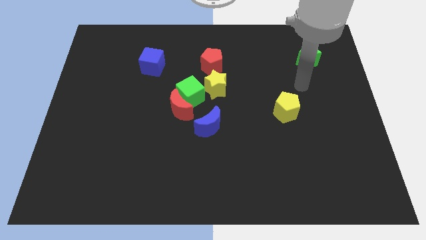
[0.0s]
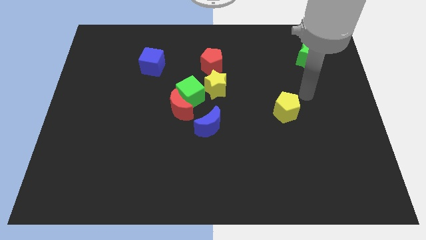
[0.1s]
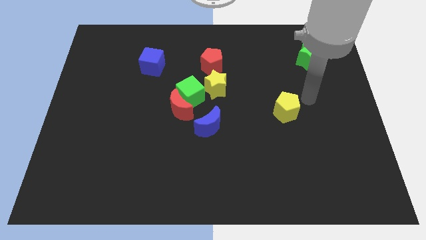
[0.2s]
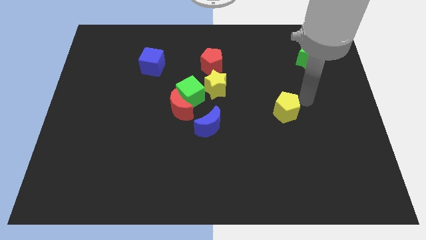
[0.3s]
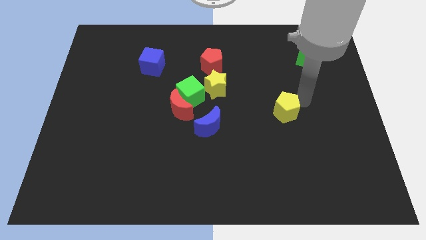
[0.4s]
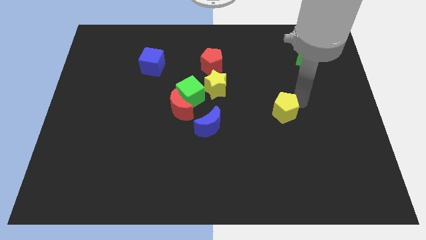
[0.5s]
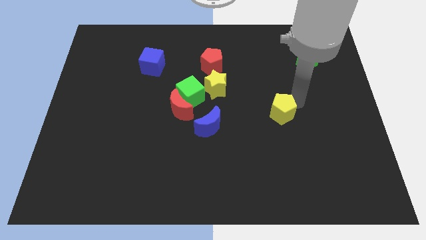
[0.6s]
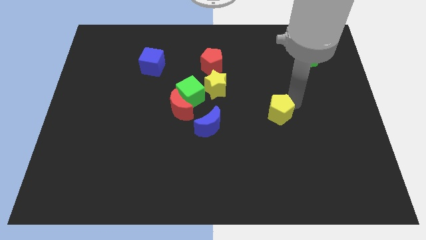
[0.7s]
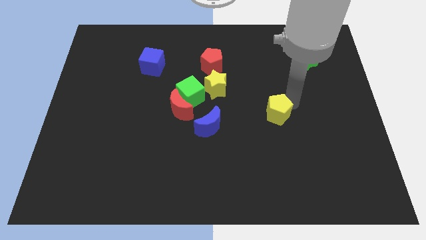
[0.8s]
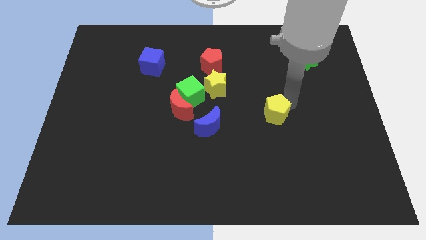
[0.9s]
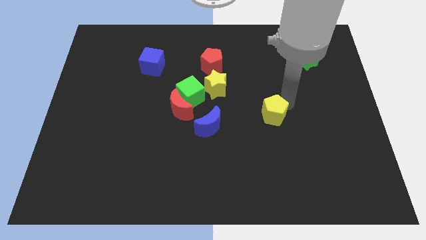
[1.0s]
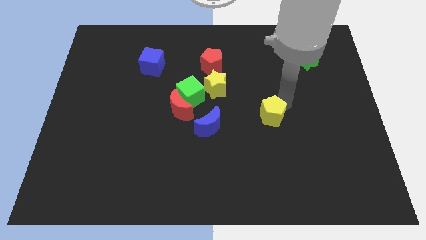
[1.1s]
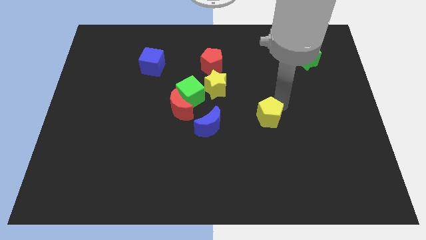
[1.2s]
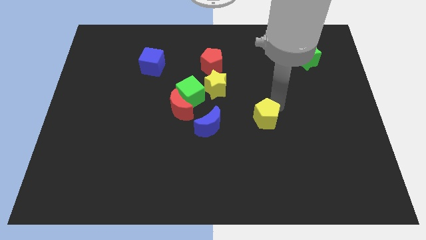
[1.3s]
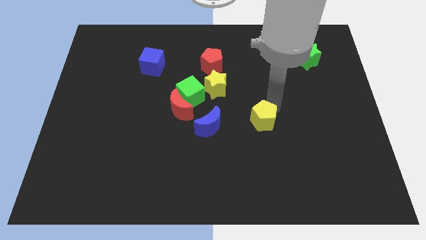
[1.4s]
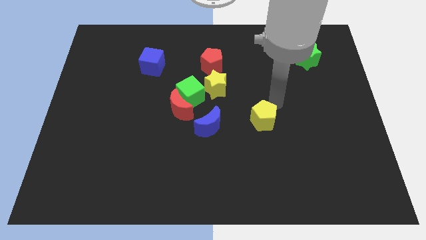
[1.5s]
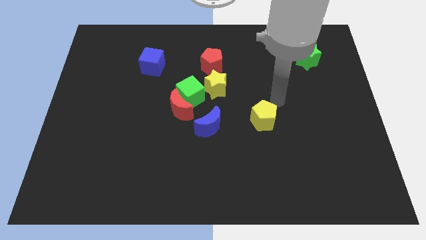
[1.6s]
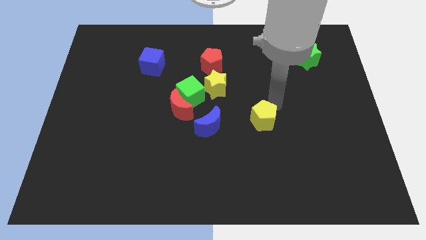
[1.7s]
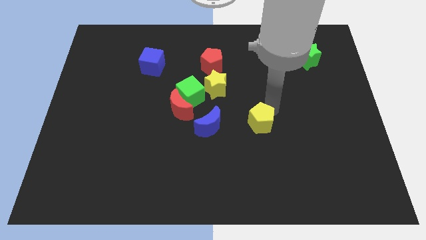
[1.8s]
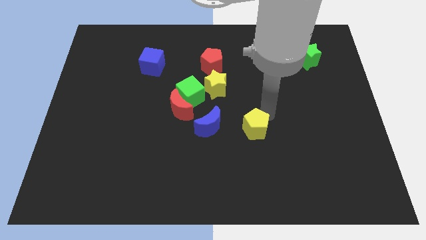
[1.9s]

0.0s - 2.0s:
slightly push the yellow pentagon diagonally downwards and to the left

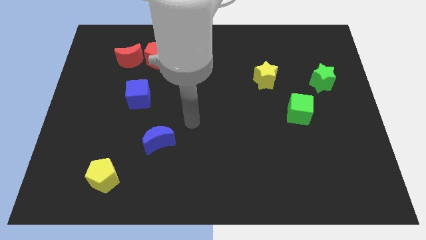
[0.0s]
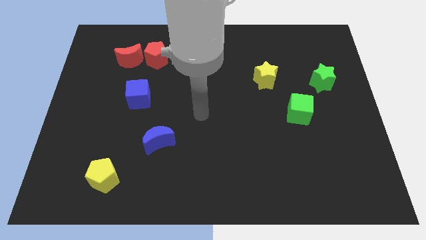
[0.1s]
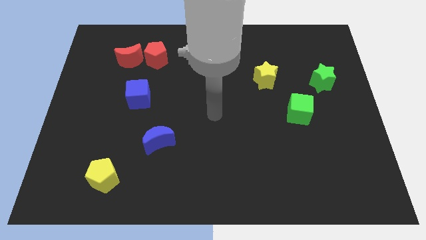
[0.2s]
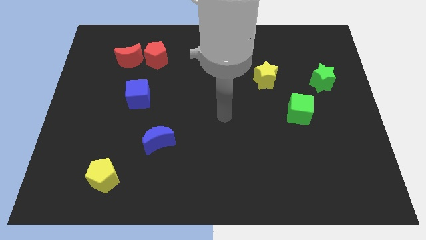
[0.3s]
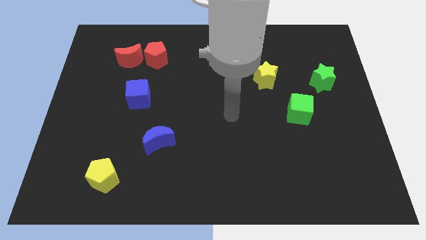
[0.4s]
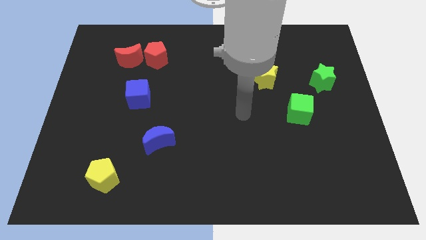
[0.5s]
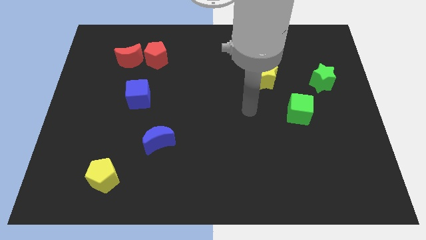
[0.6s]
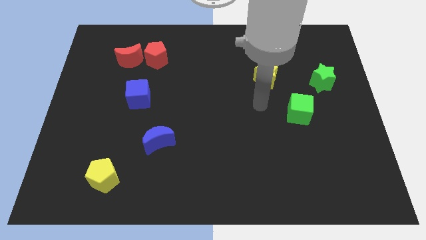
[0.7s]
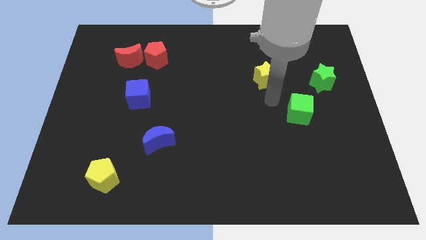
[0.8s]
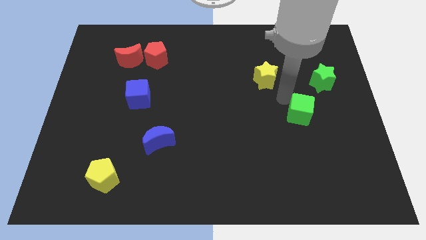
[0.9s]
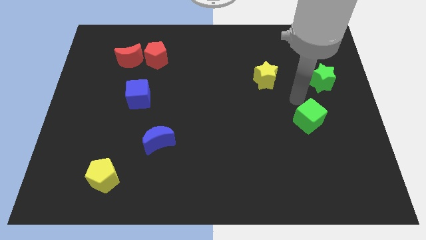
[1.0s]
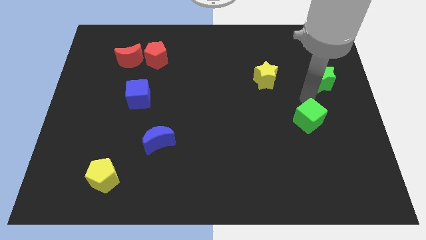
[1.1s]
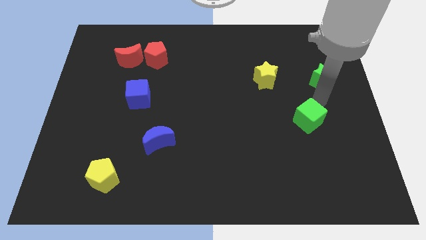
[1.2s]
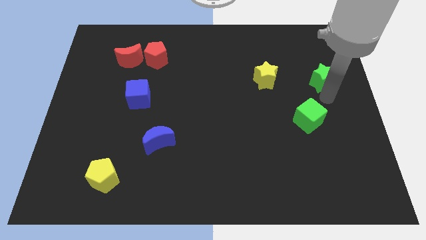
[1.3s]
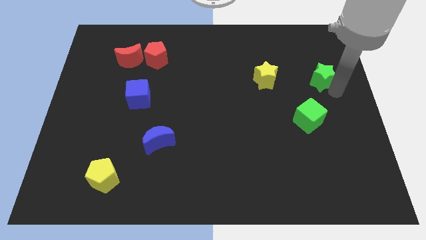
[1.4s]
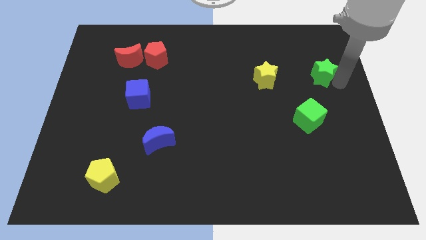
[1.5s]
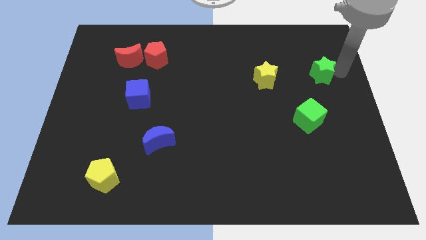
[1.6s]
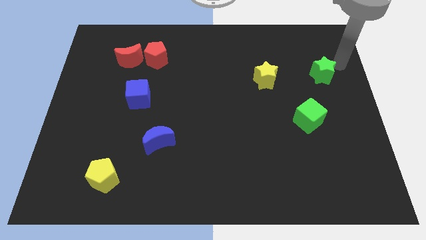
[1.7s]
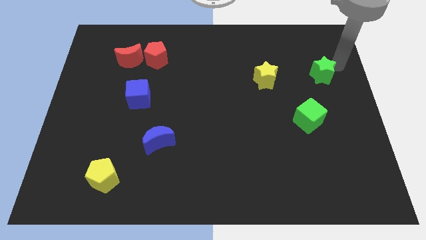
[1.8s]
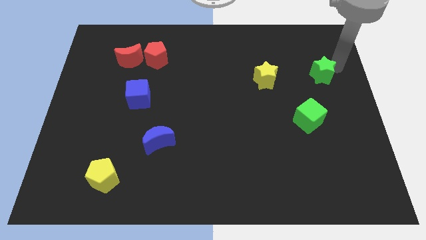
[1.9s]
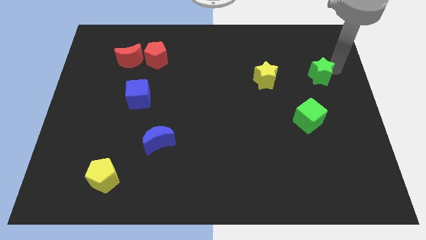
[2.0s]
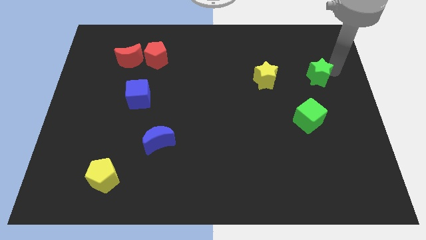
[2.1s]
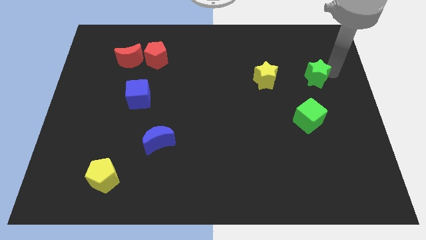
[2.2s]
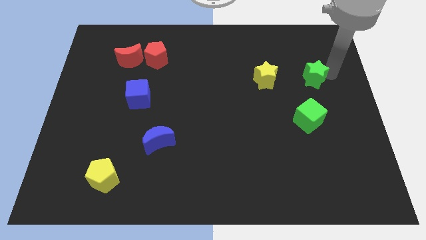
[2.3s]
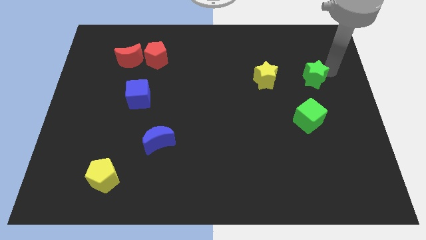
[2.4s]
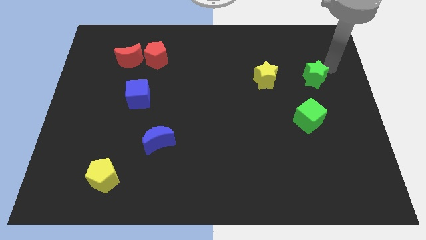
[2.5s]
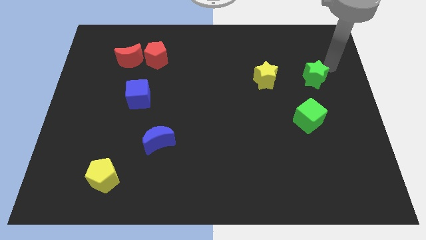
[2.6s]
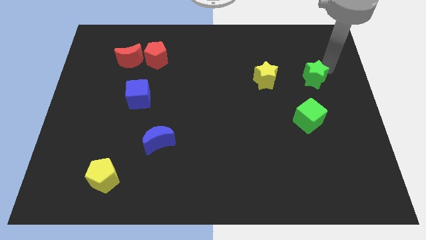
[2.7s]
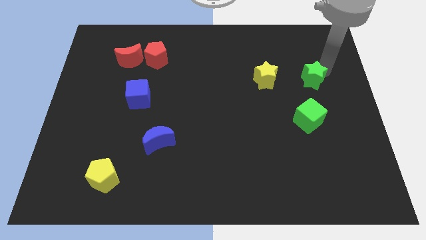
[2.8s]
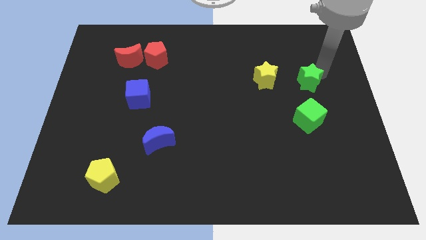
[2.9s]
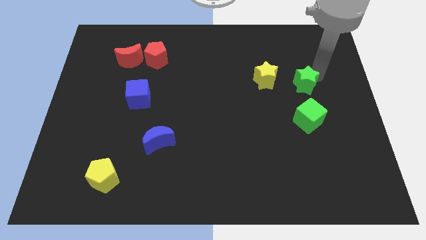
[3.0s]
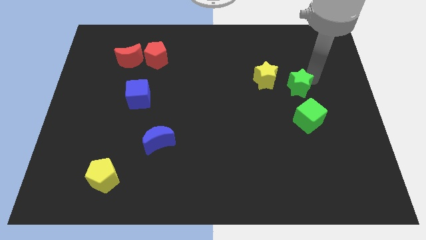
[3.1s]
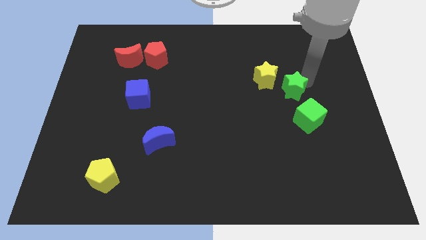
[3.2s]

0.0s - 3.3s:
move the green star a little down and left diagonally

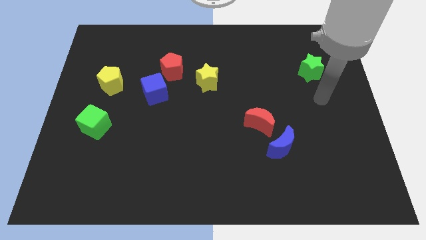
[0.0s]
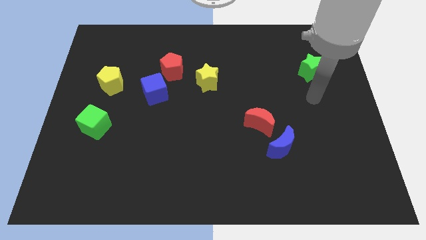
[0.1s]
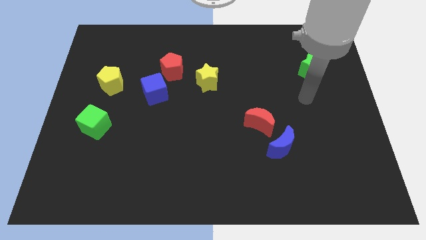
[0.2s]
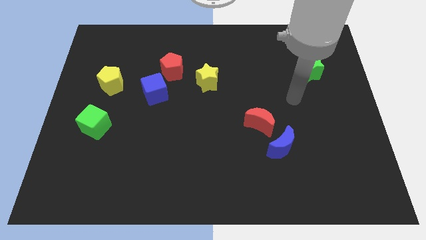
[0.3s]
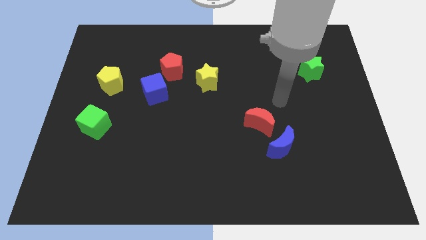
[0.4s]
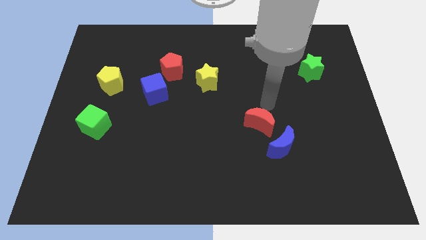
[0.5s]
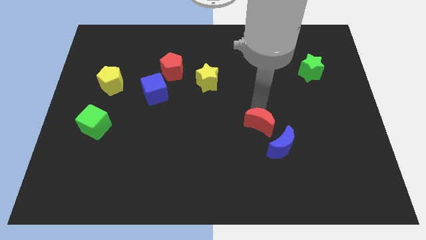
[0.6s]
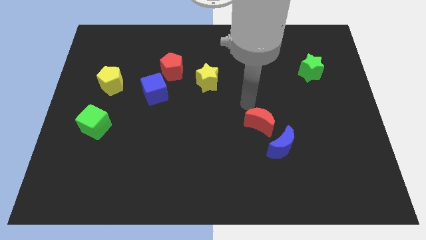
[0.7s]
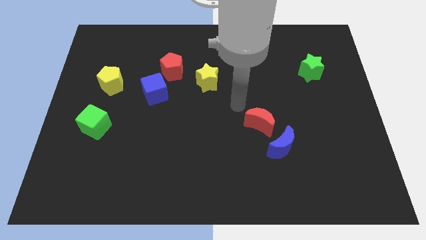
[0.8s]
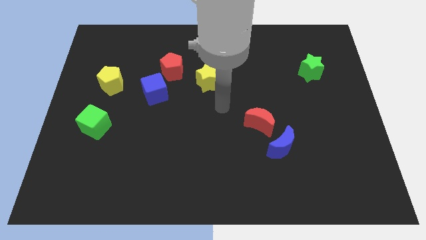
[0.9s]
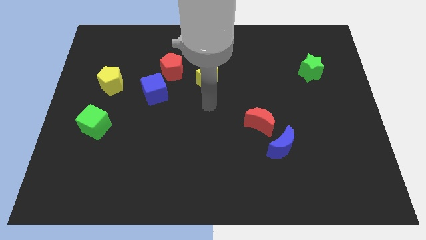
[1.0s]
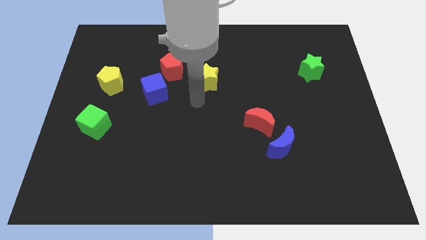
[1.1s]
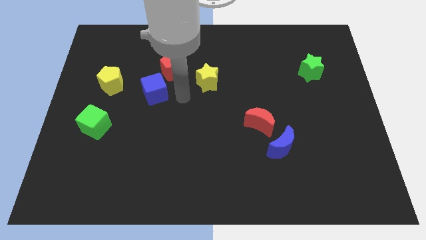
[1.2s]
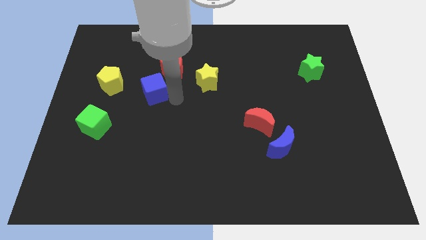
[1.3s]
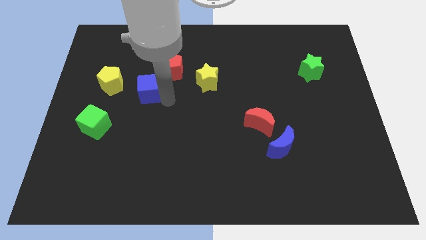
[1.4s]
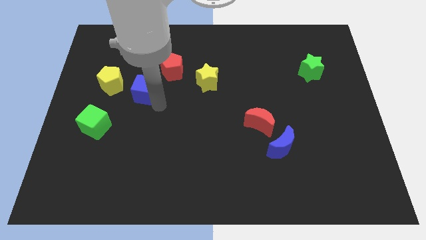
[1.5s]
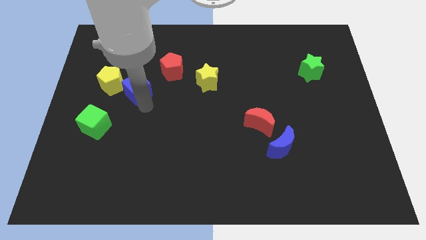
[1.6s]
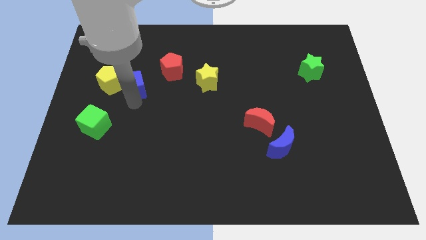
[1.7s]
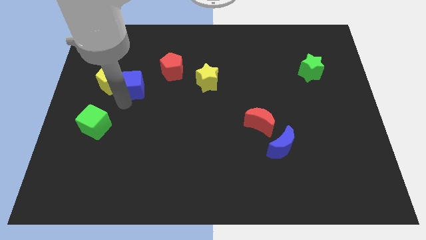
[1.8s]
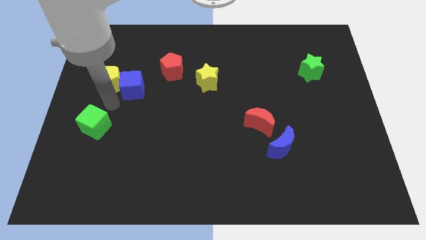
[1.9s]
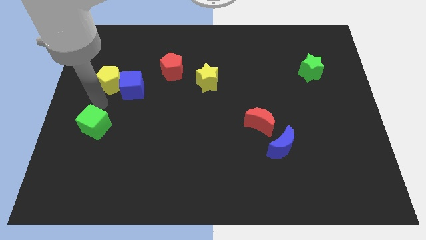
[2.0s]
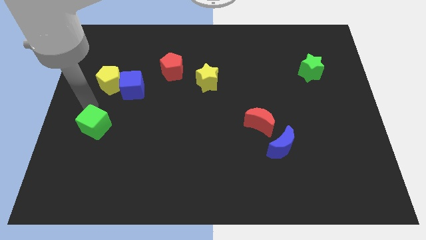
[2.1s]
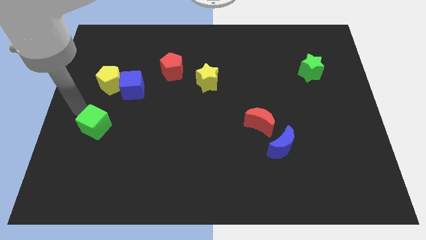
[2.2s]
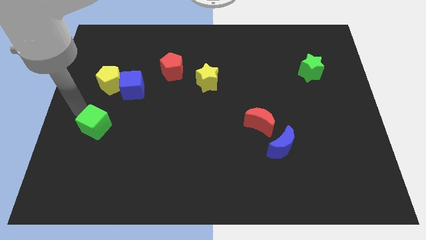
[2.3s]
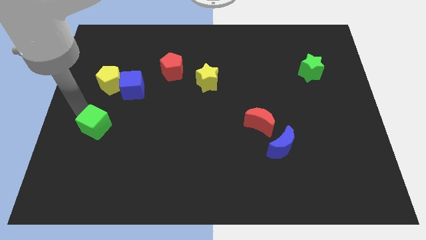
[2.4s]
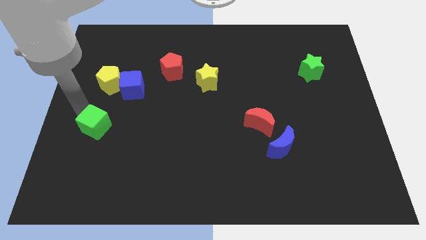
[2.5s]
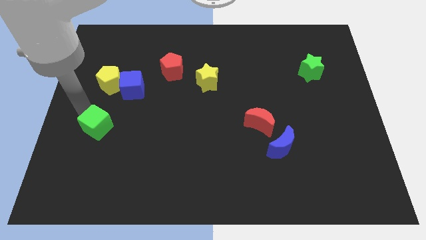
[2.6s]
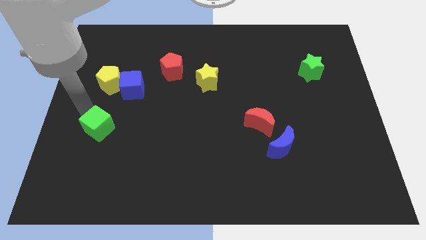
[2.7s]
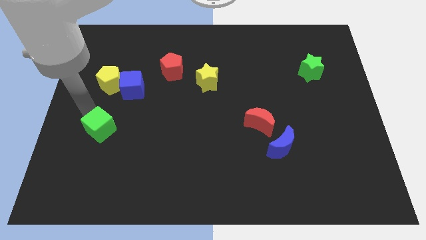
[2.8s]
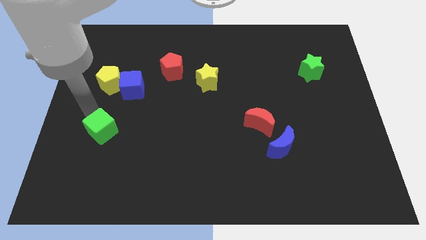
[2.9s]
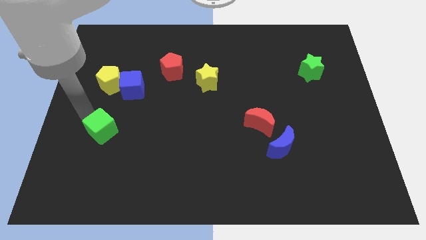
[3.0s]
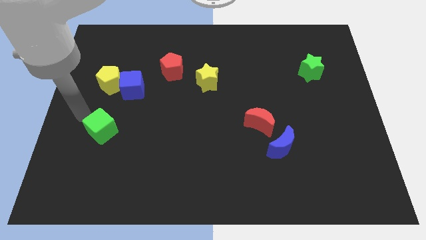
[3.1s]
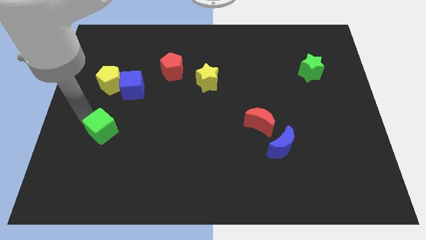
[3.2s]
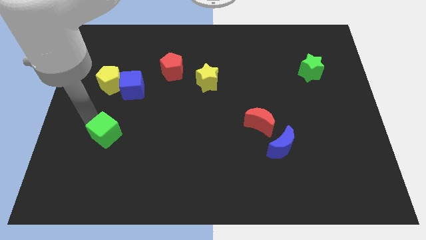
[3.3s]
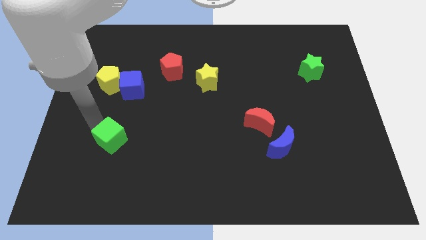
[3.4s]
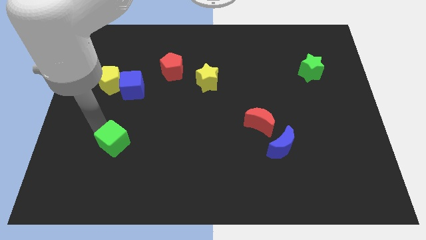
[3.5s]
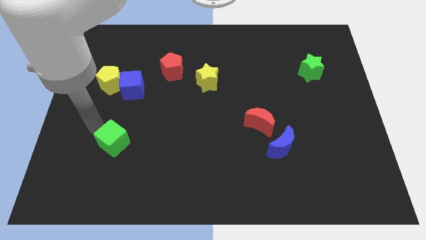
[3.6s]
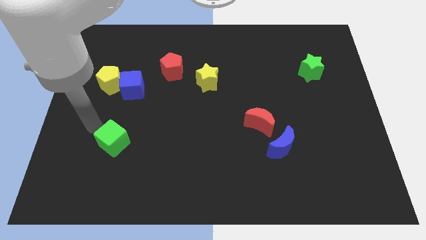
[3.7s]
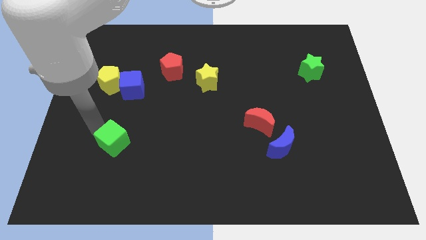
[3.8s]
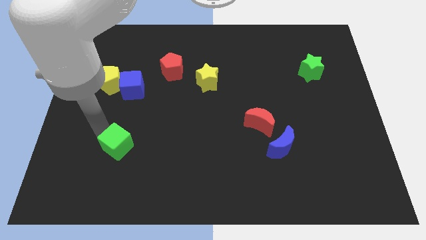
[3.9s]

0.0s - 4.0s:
slightly push the green cube downwards and to the right
